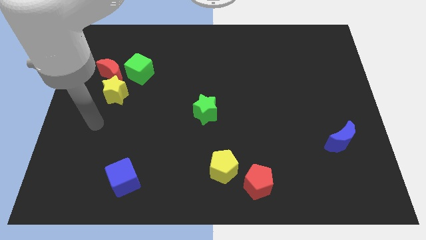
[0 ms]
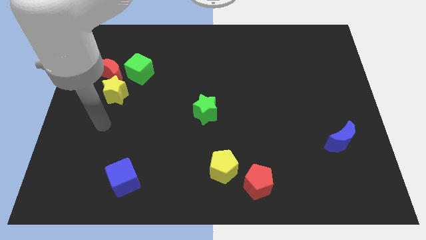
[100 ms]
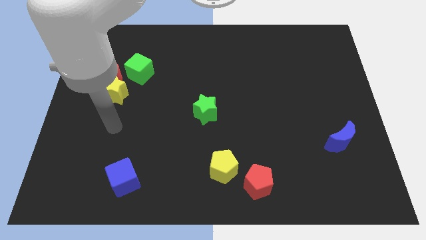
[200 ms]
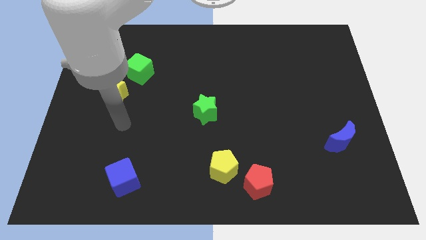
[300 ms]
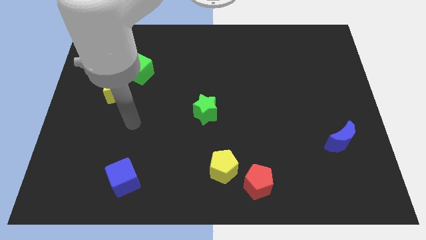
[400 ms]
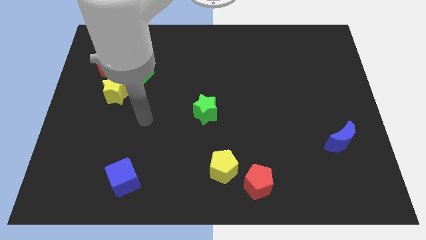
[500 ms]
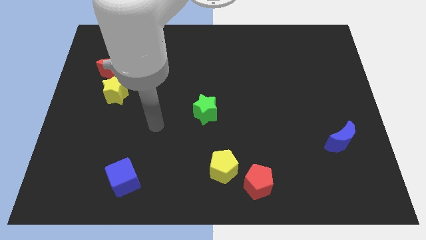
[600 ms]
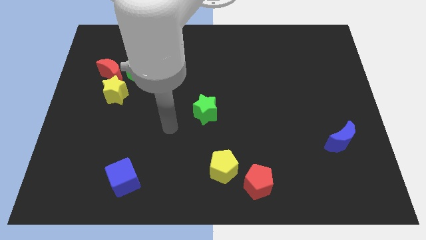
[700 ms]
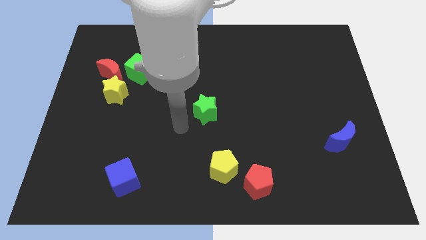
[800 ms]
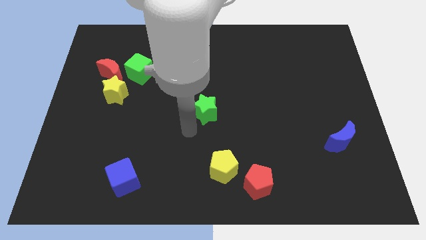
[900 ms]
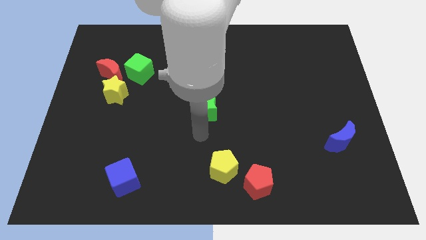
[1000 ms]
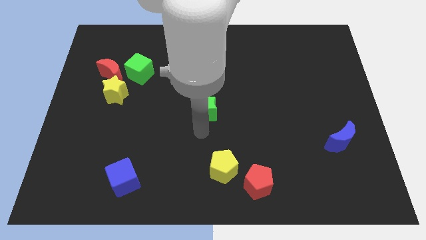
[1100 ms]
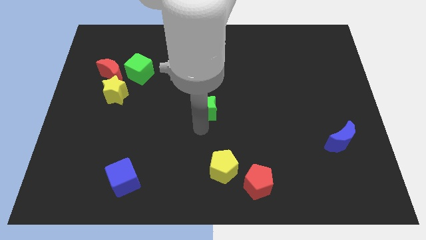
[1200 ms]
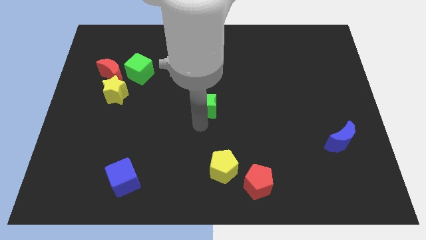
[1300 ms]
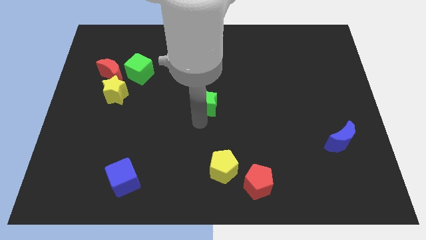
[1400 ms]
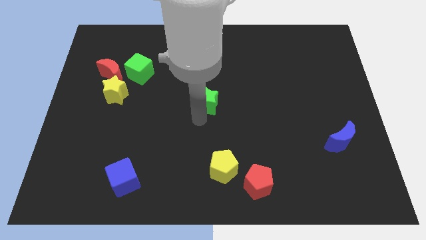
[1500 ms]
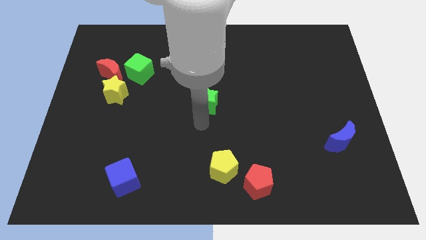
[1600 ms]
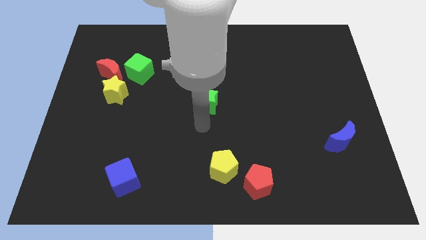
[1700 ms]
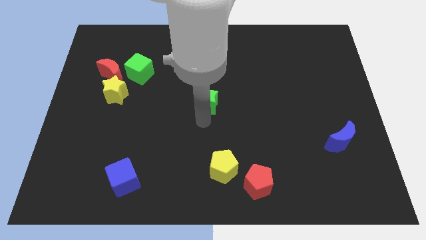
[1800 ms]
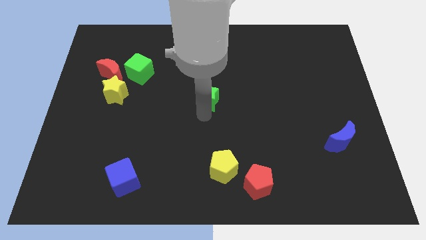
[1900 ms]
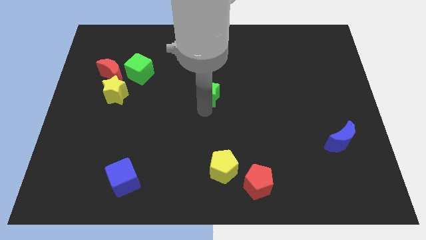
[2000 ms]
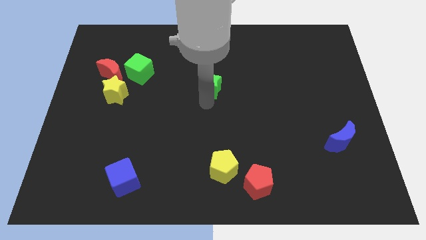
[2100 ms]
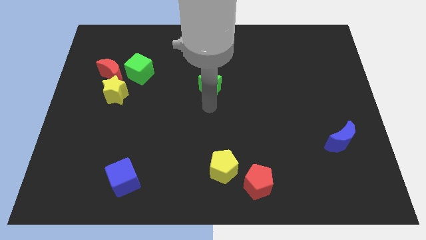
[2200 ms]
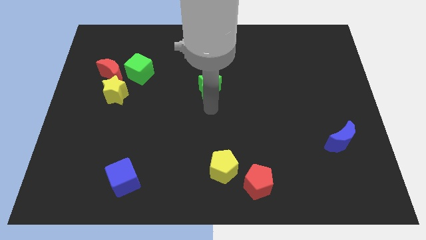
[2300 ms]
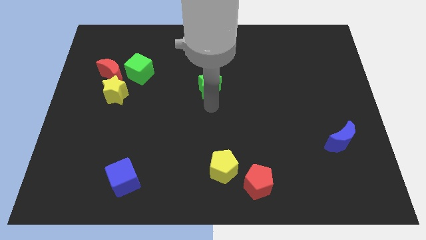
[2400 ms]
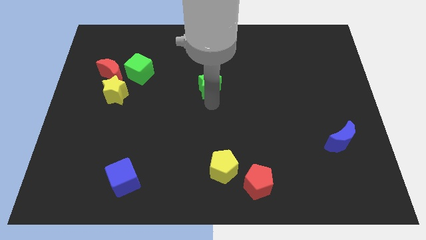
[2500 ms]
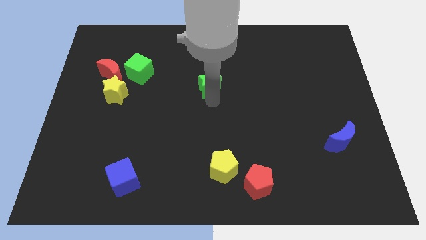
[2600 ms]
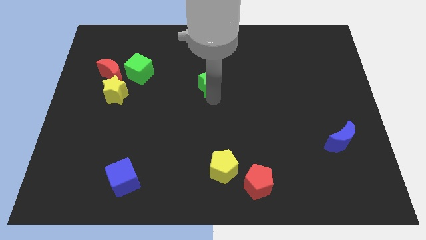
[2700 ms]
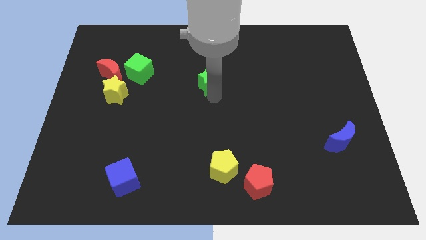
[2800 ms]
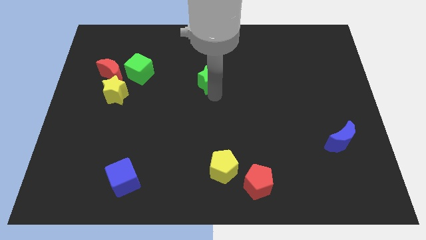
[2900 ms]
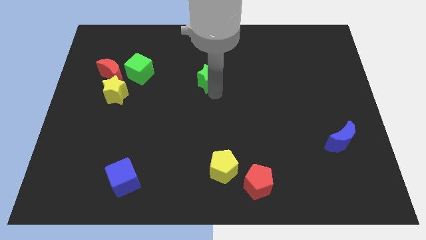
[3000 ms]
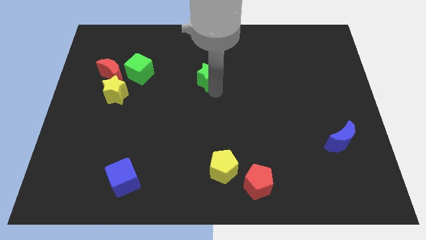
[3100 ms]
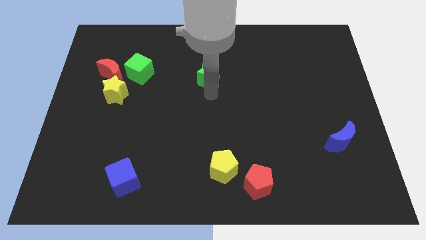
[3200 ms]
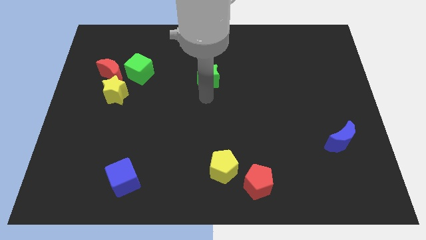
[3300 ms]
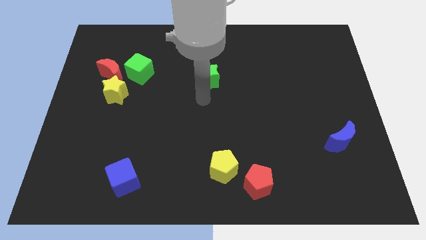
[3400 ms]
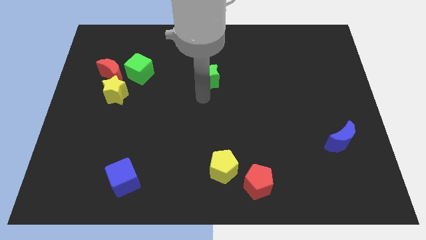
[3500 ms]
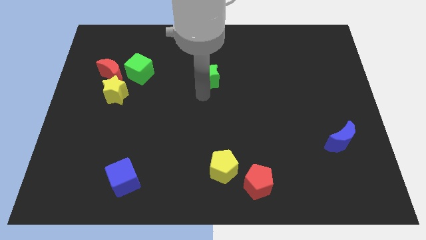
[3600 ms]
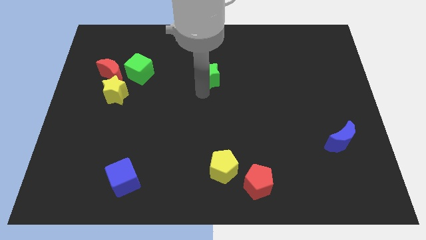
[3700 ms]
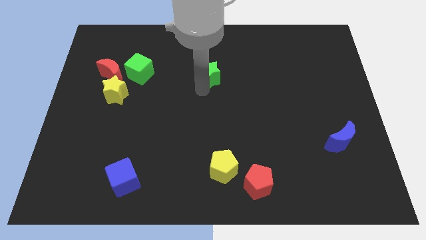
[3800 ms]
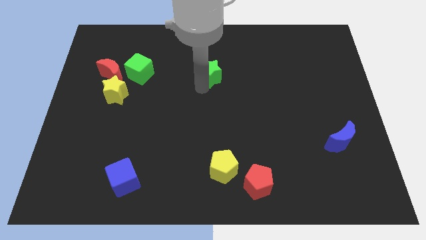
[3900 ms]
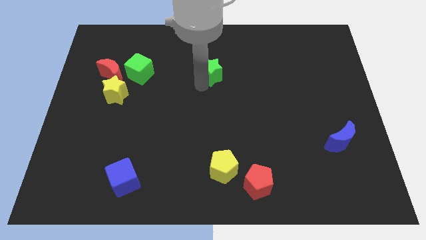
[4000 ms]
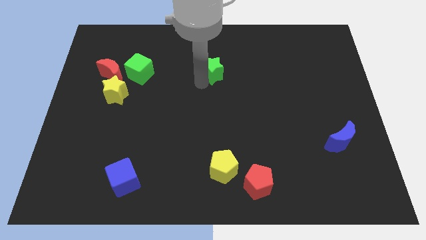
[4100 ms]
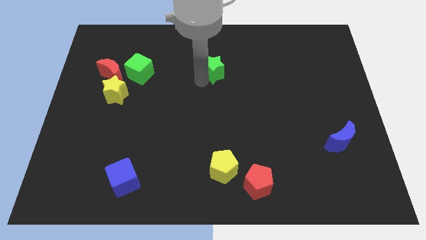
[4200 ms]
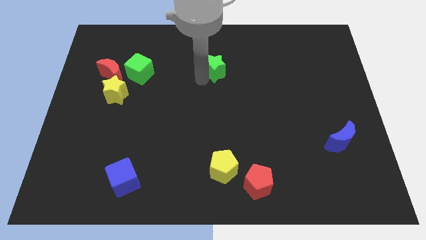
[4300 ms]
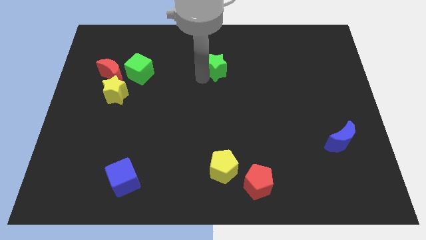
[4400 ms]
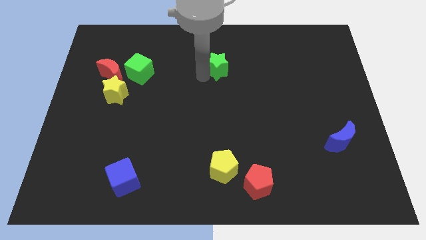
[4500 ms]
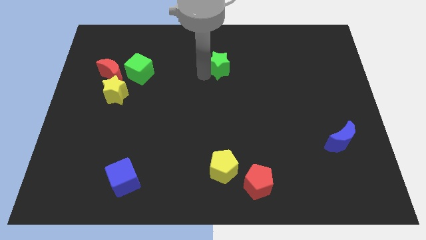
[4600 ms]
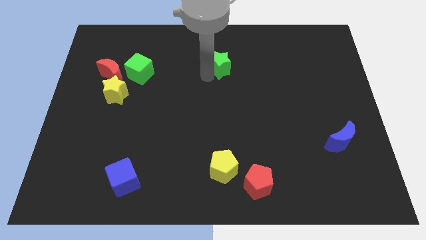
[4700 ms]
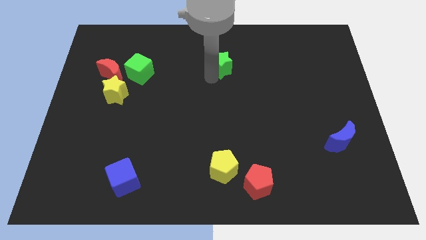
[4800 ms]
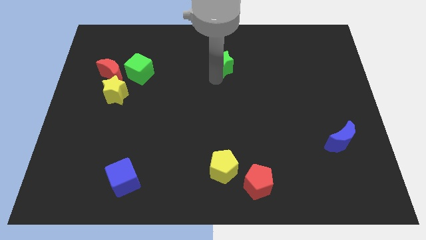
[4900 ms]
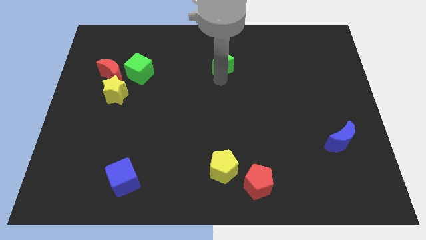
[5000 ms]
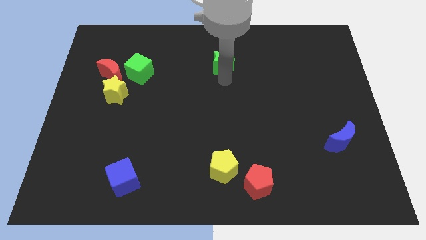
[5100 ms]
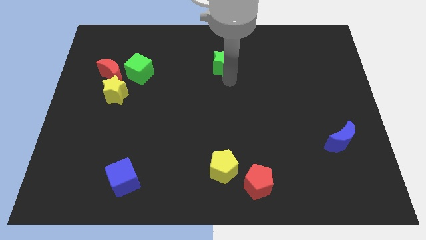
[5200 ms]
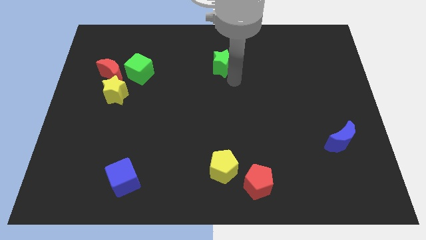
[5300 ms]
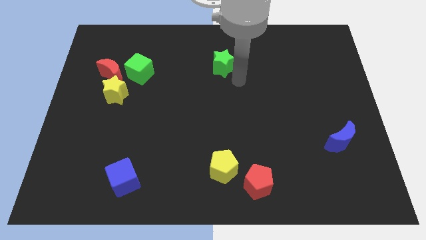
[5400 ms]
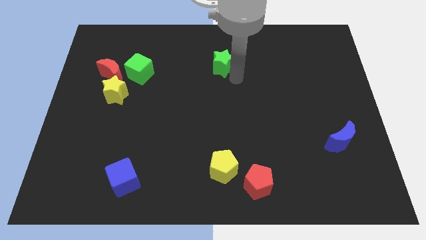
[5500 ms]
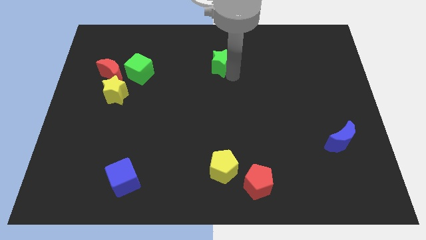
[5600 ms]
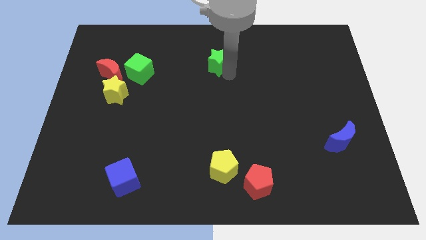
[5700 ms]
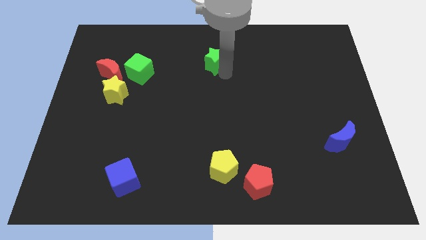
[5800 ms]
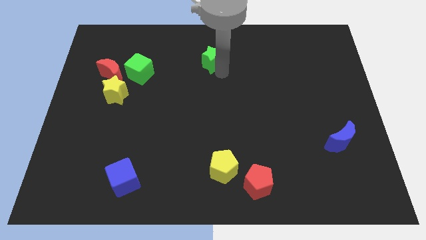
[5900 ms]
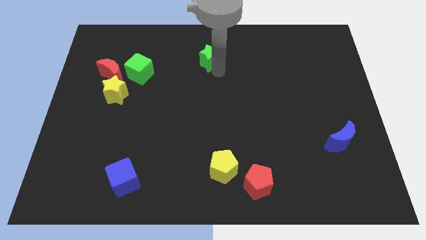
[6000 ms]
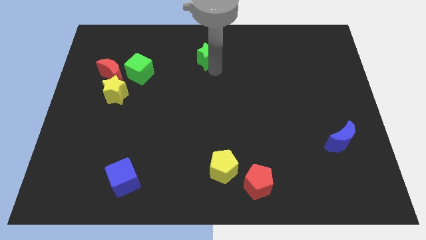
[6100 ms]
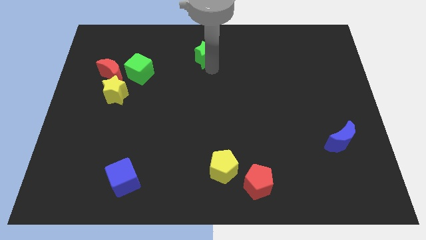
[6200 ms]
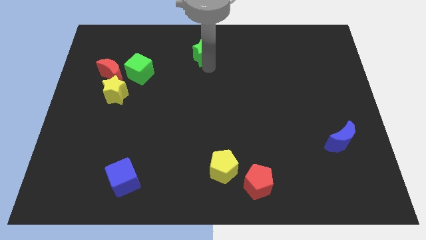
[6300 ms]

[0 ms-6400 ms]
move the green star to the top side
